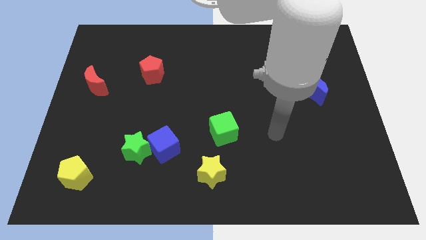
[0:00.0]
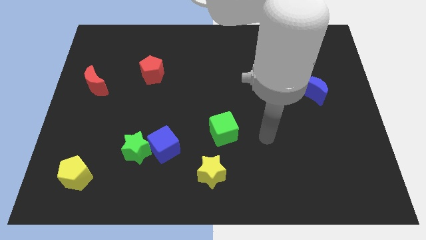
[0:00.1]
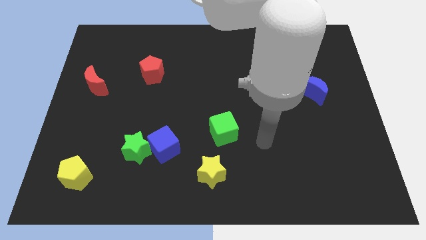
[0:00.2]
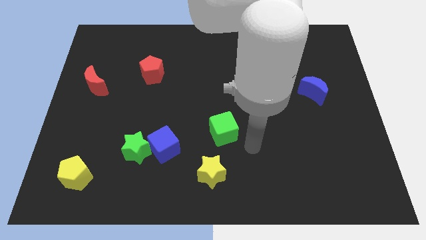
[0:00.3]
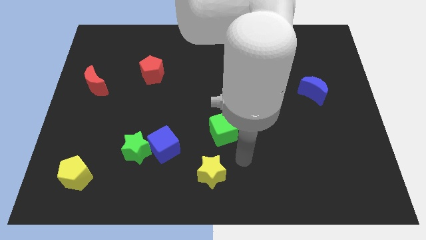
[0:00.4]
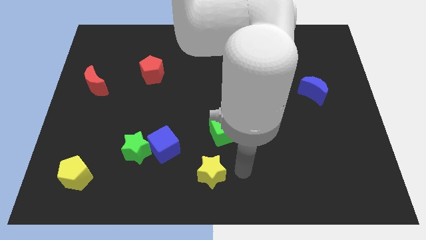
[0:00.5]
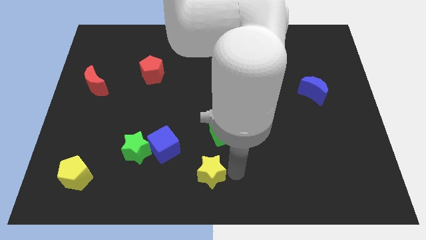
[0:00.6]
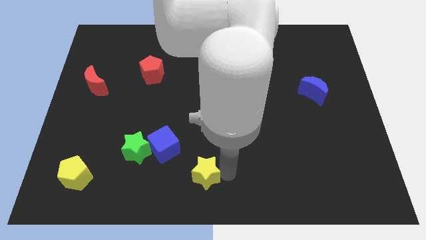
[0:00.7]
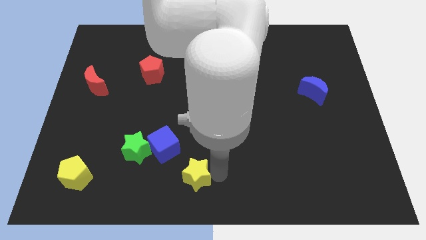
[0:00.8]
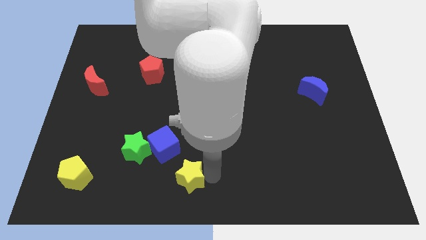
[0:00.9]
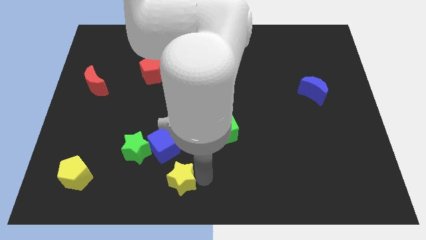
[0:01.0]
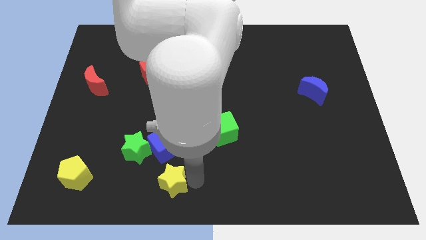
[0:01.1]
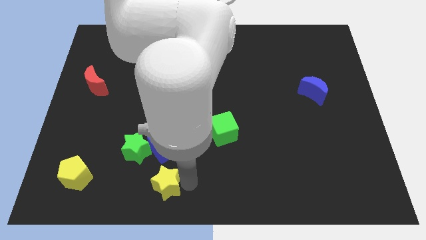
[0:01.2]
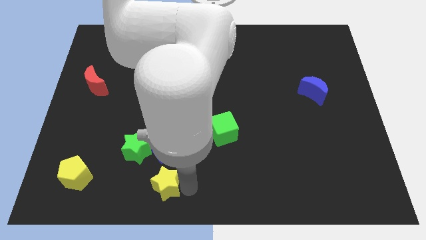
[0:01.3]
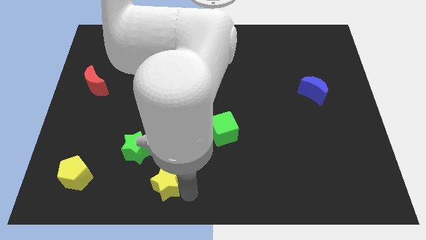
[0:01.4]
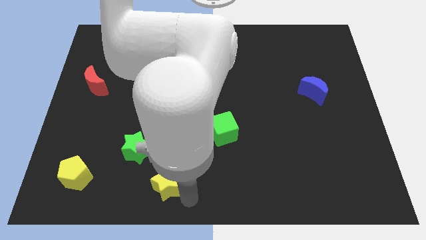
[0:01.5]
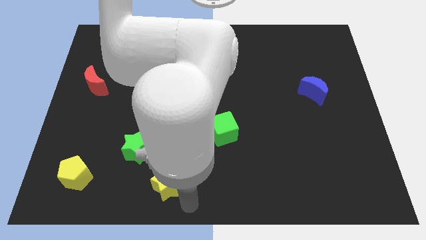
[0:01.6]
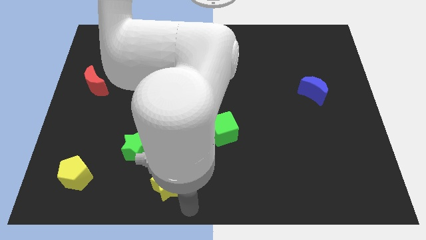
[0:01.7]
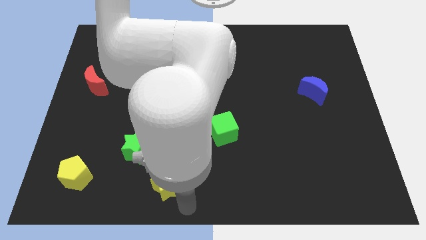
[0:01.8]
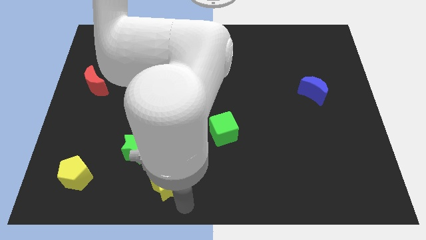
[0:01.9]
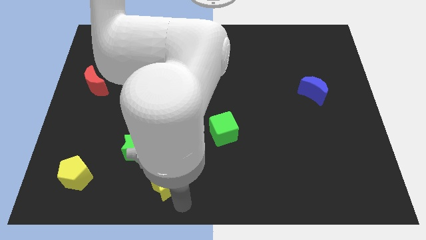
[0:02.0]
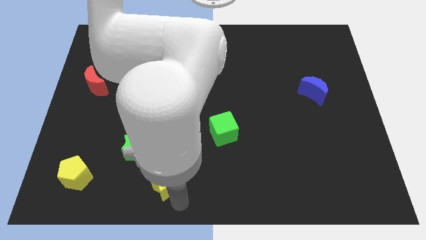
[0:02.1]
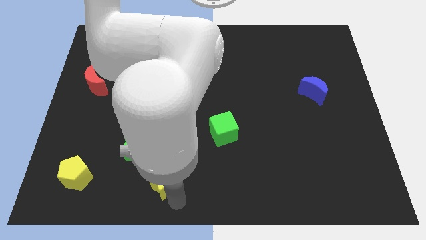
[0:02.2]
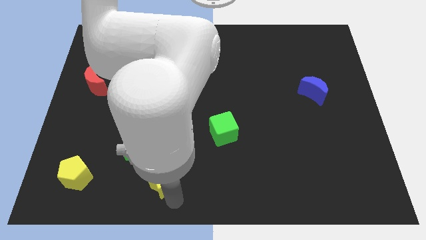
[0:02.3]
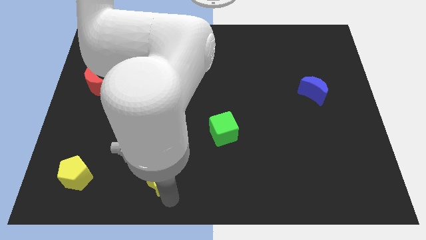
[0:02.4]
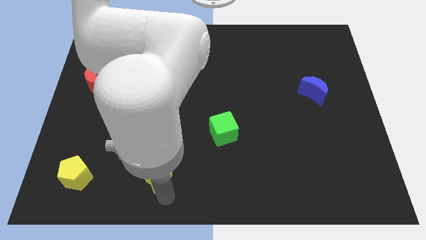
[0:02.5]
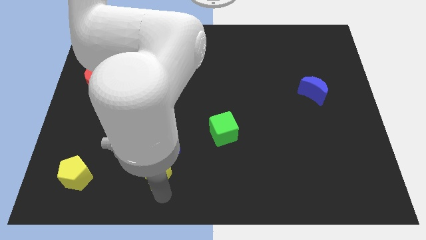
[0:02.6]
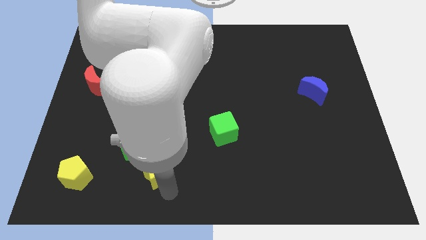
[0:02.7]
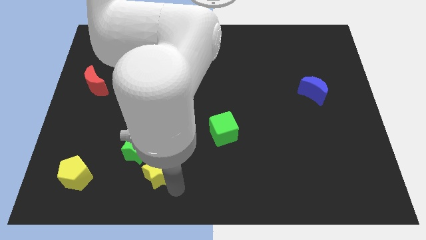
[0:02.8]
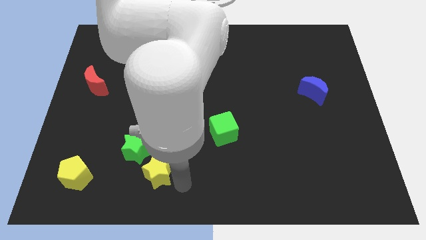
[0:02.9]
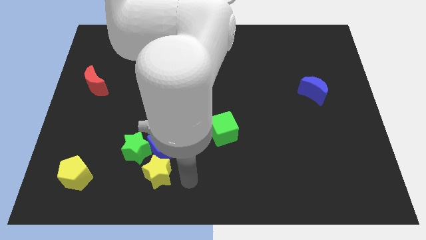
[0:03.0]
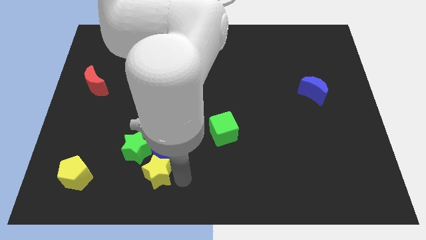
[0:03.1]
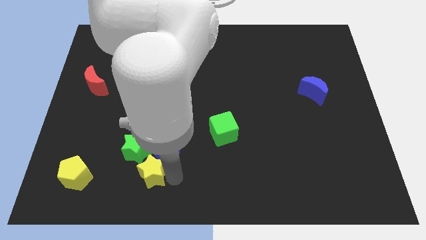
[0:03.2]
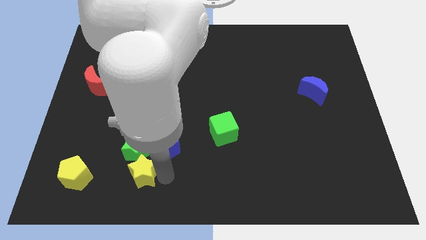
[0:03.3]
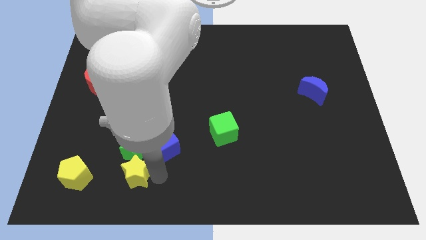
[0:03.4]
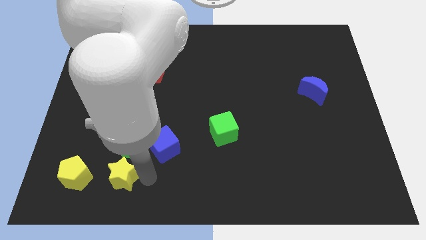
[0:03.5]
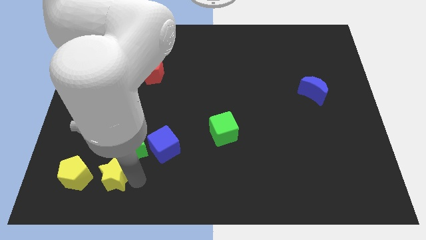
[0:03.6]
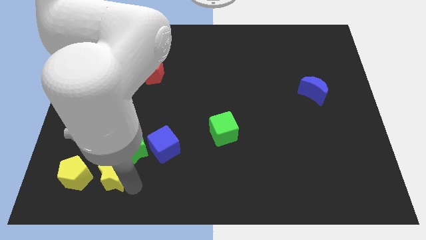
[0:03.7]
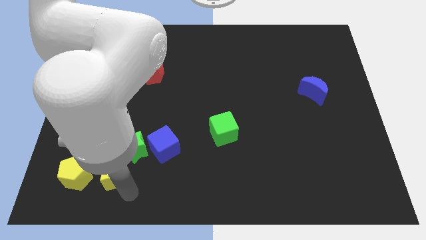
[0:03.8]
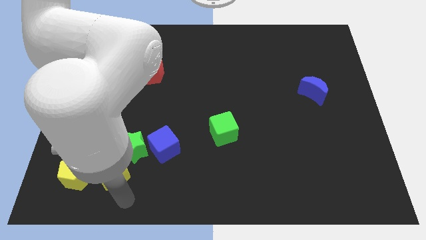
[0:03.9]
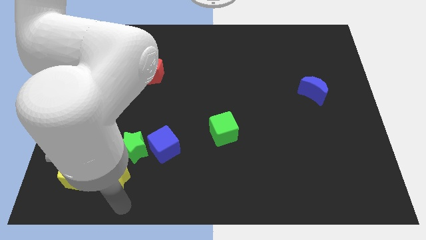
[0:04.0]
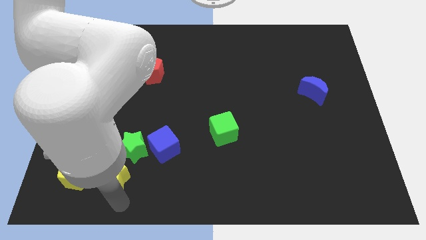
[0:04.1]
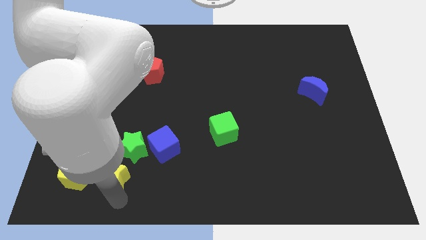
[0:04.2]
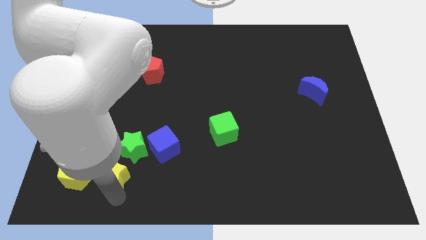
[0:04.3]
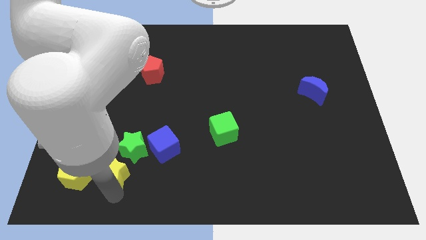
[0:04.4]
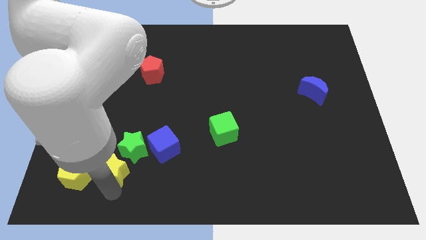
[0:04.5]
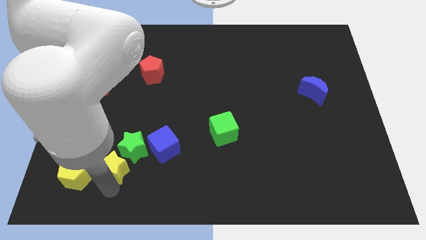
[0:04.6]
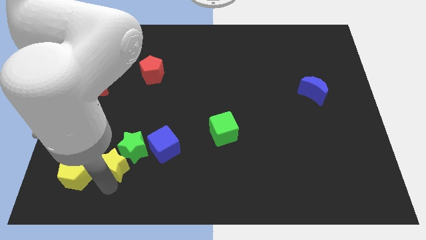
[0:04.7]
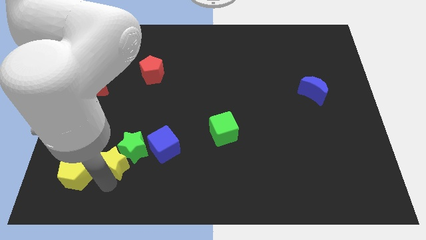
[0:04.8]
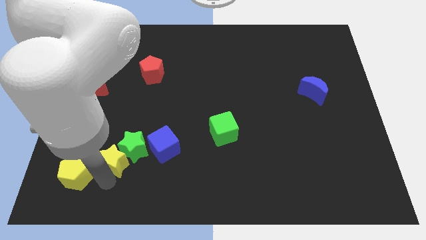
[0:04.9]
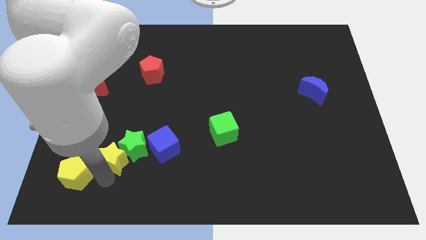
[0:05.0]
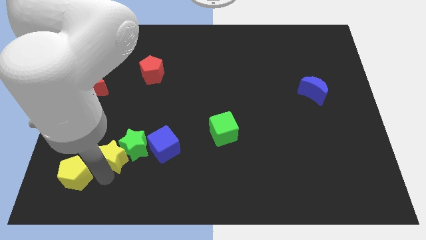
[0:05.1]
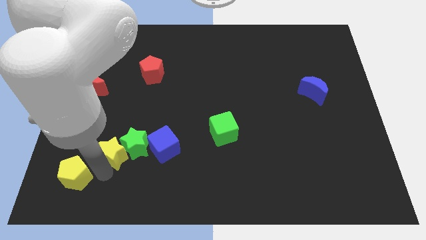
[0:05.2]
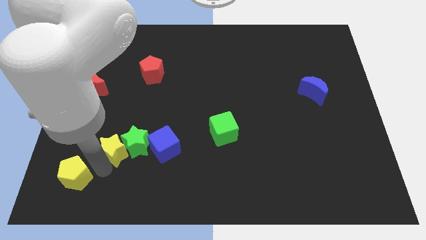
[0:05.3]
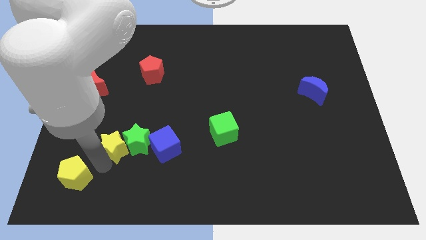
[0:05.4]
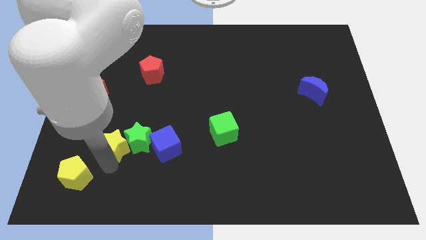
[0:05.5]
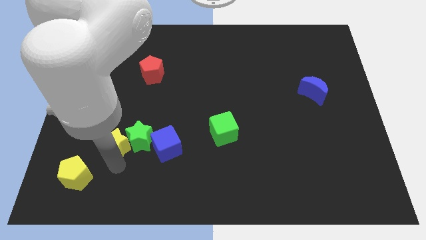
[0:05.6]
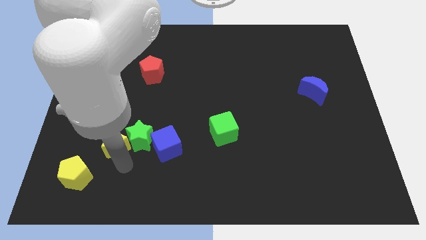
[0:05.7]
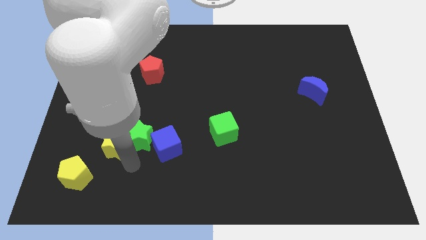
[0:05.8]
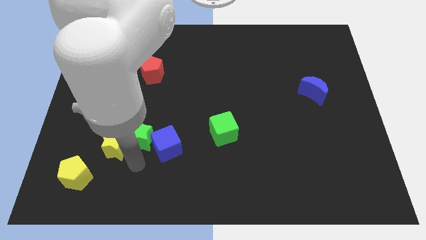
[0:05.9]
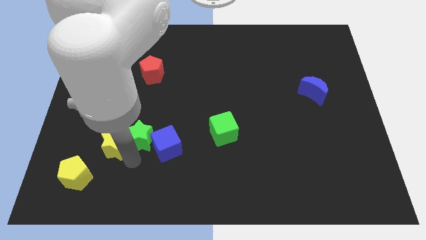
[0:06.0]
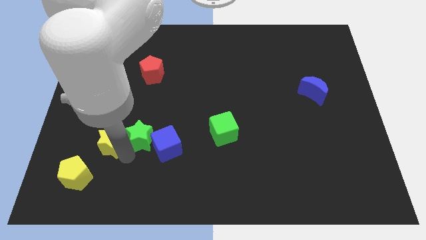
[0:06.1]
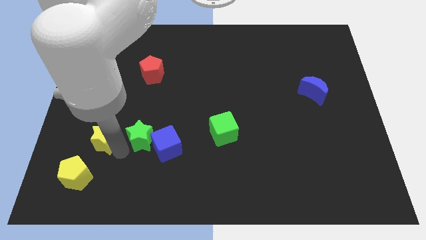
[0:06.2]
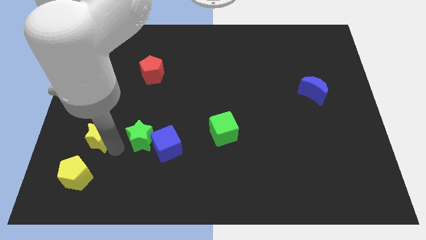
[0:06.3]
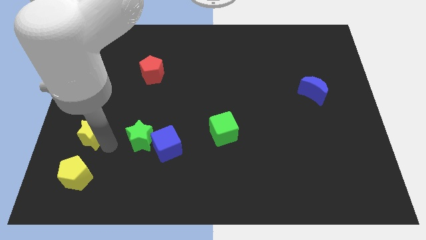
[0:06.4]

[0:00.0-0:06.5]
slide the yellow star below the red moon
